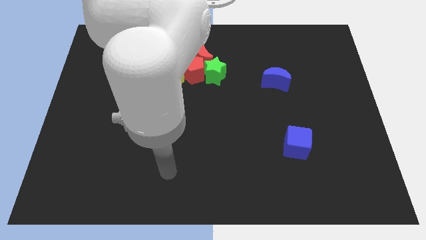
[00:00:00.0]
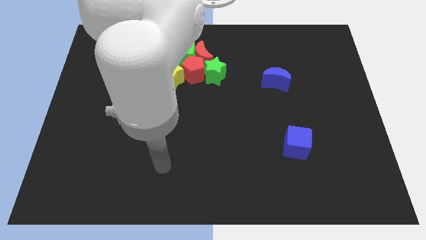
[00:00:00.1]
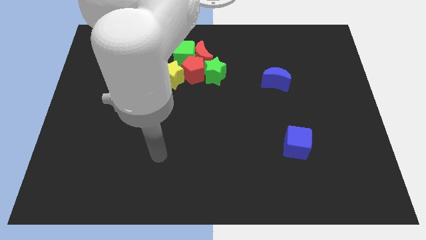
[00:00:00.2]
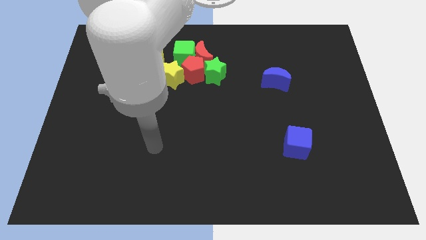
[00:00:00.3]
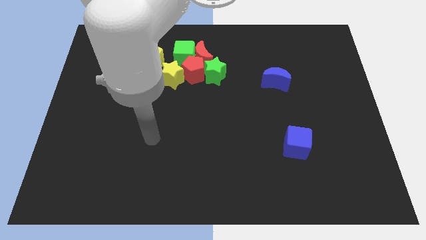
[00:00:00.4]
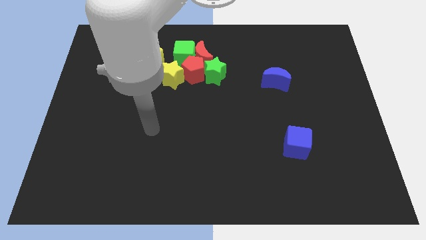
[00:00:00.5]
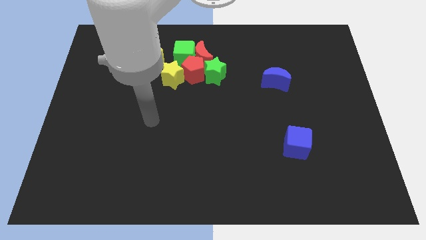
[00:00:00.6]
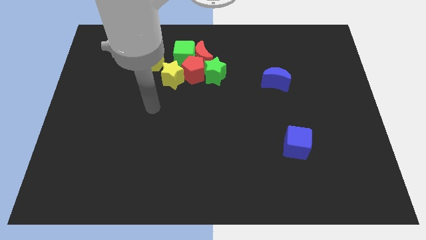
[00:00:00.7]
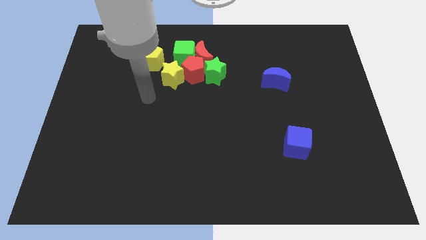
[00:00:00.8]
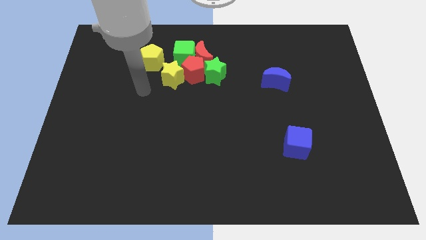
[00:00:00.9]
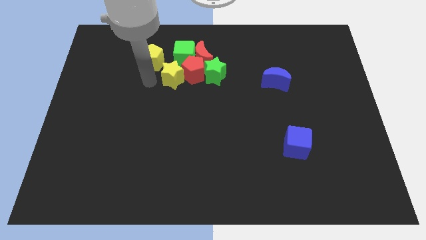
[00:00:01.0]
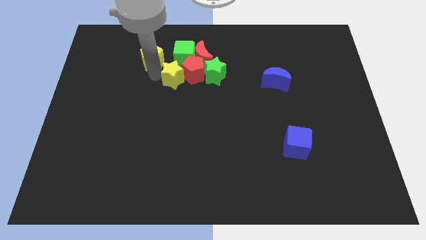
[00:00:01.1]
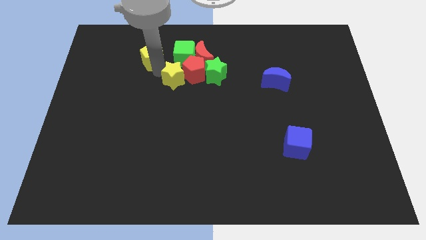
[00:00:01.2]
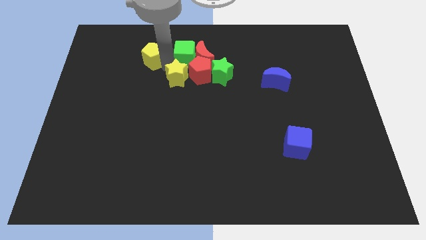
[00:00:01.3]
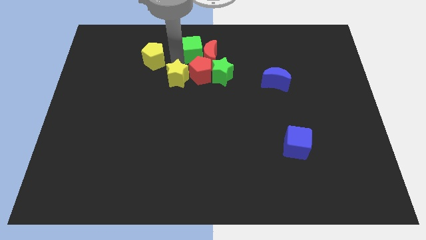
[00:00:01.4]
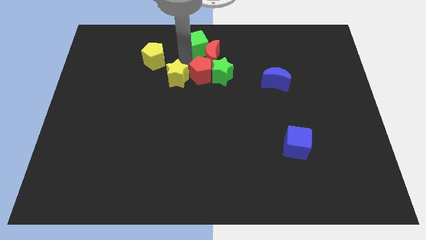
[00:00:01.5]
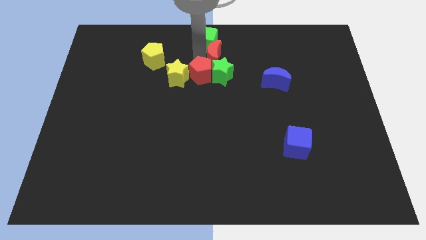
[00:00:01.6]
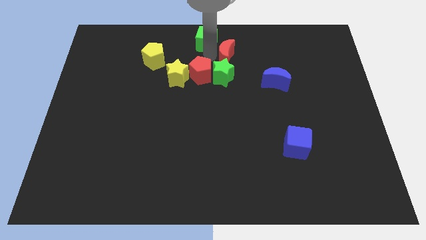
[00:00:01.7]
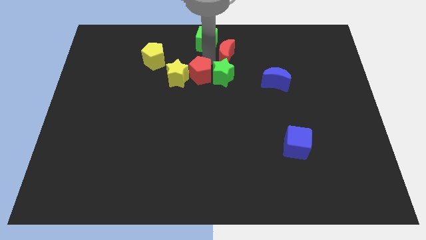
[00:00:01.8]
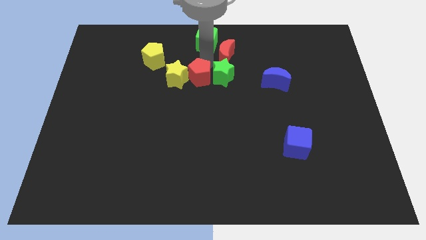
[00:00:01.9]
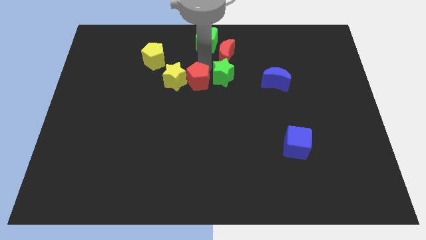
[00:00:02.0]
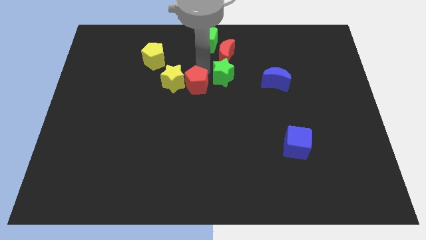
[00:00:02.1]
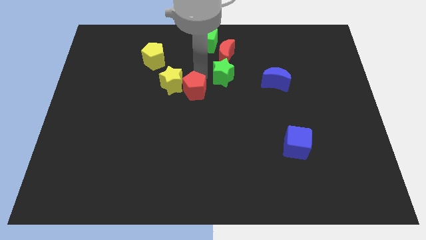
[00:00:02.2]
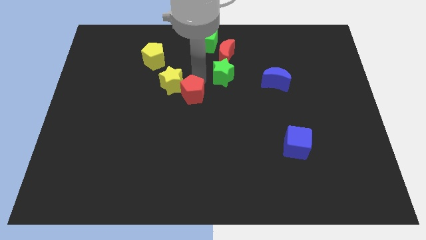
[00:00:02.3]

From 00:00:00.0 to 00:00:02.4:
move the red pentagon away from the group of blocks

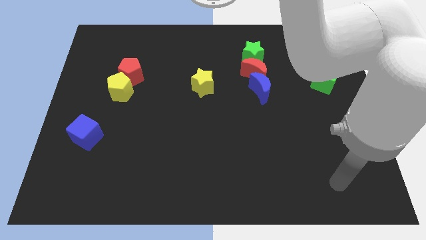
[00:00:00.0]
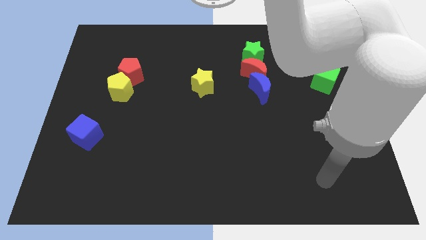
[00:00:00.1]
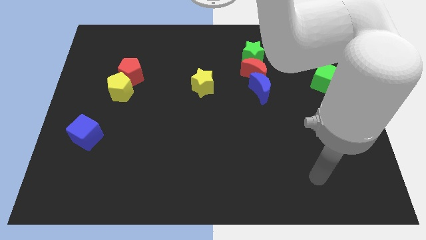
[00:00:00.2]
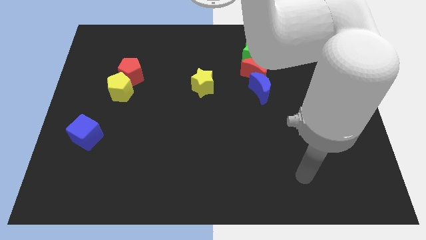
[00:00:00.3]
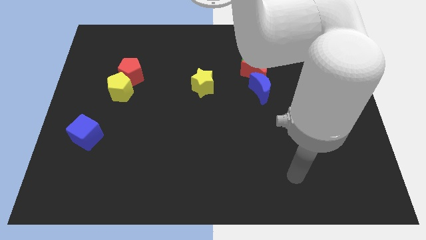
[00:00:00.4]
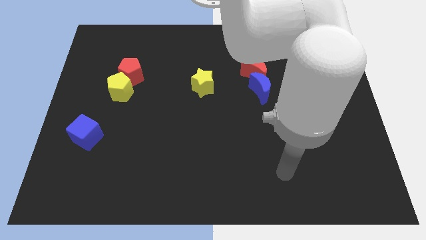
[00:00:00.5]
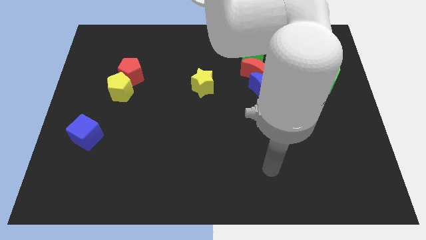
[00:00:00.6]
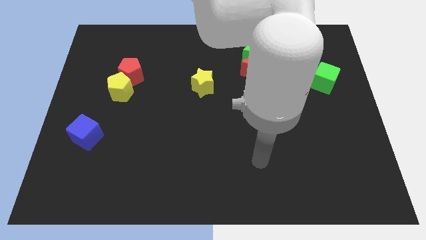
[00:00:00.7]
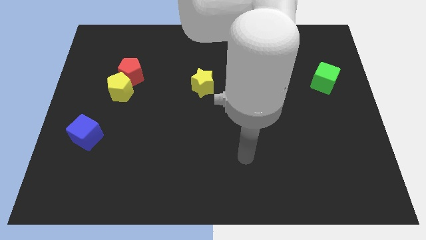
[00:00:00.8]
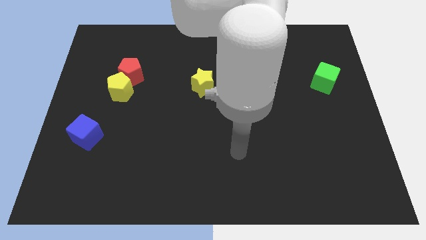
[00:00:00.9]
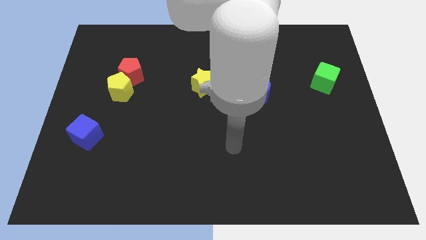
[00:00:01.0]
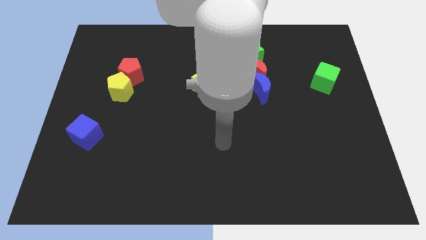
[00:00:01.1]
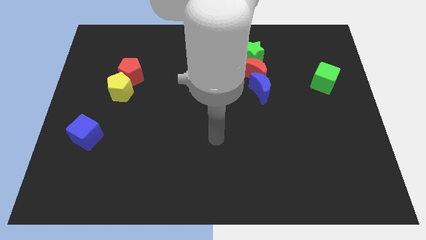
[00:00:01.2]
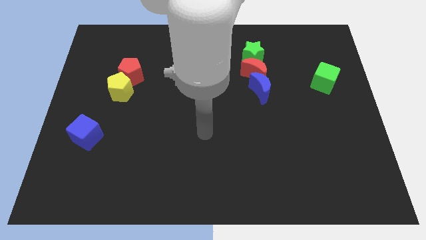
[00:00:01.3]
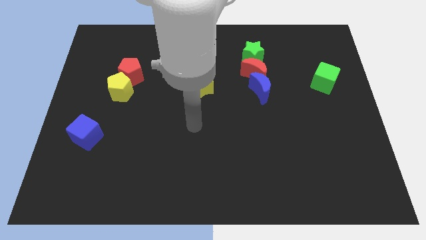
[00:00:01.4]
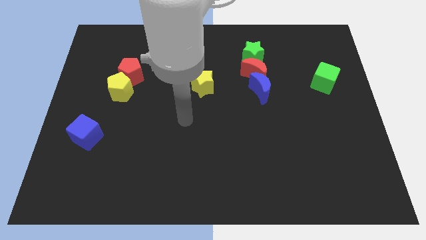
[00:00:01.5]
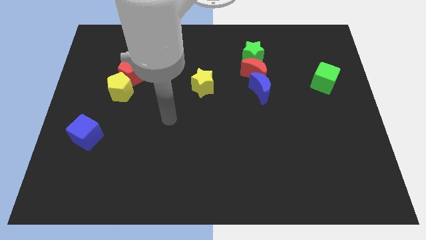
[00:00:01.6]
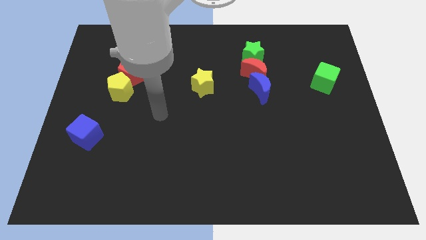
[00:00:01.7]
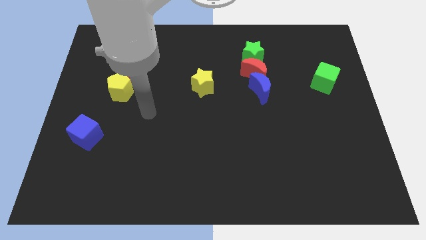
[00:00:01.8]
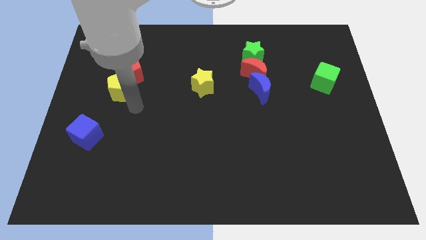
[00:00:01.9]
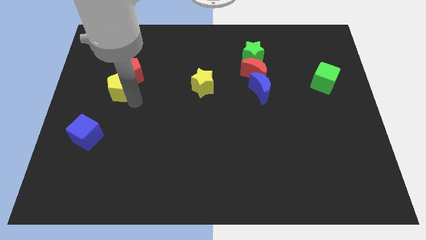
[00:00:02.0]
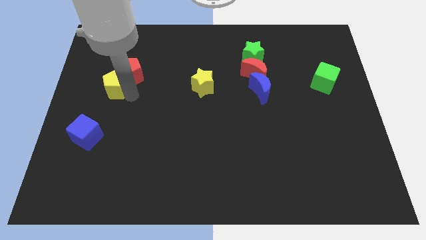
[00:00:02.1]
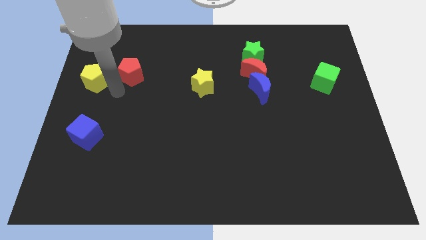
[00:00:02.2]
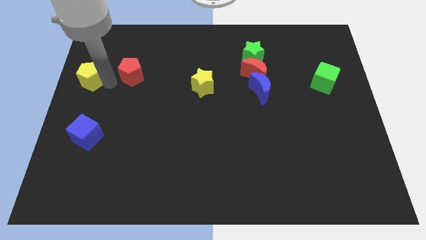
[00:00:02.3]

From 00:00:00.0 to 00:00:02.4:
pull the red pentagon apart from the yellow pentagon

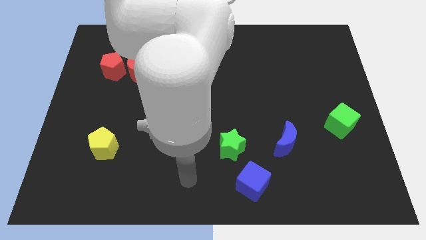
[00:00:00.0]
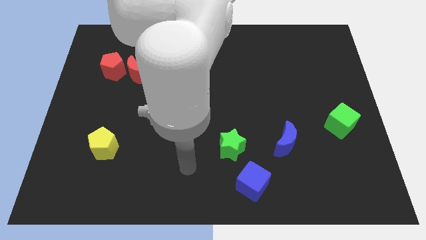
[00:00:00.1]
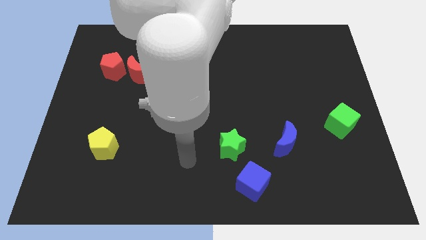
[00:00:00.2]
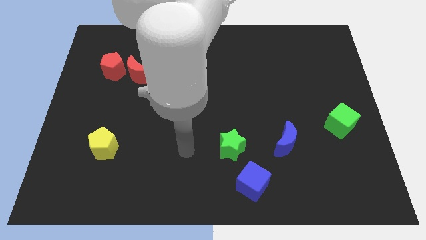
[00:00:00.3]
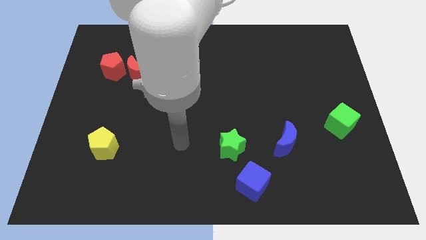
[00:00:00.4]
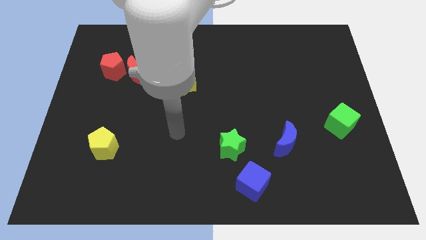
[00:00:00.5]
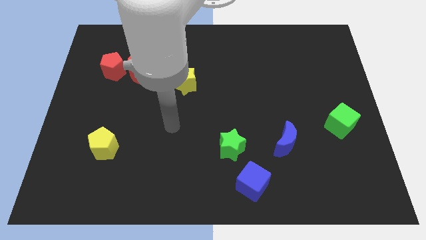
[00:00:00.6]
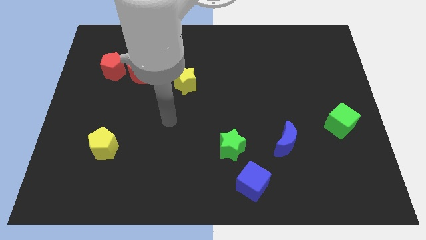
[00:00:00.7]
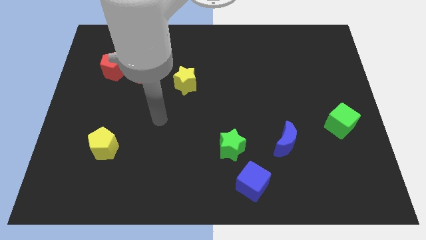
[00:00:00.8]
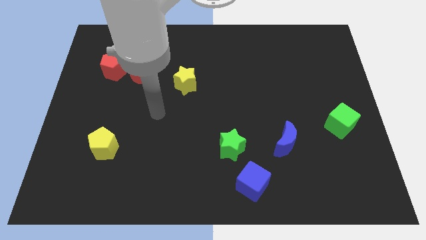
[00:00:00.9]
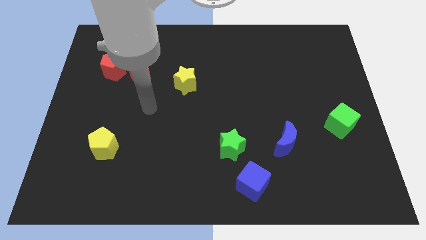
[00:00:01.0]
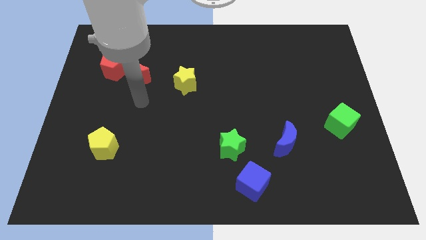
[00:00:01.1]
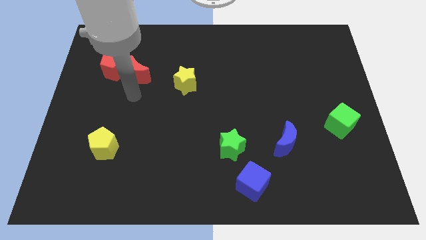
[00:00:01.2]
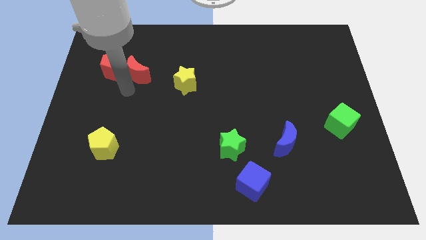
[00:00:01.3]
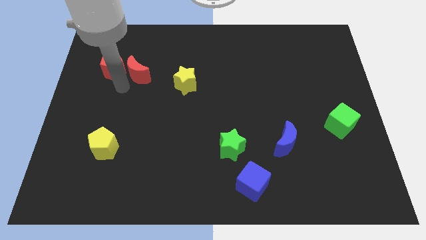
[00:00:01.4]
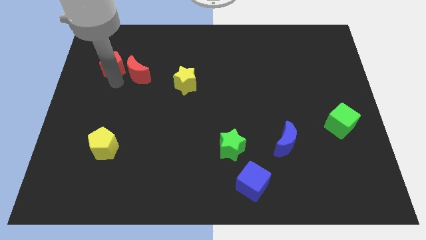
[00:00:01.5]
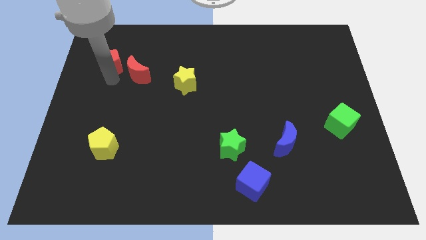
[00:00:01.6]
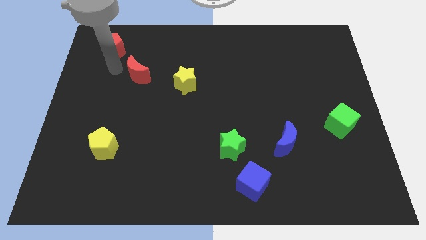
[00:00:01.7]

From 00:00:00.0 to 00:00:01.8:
separate the red moon from the red pentagon

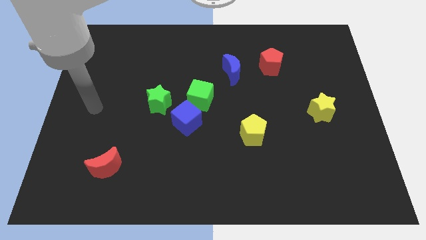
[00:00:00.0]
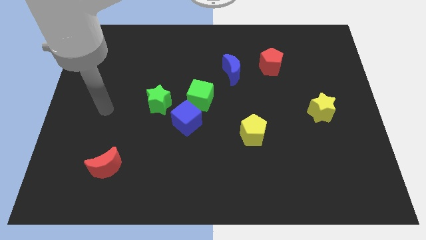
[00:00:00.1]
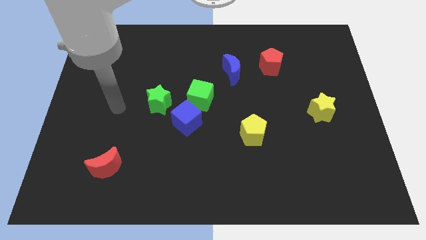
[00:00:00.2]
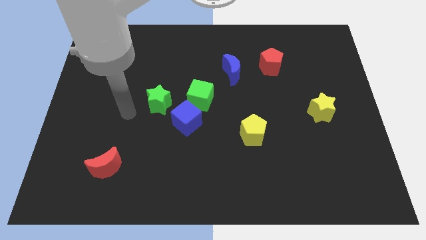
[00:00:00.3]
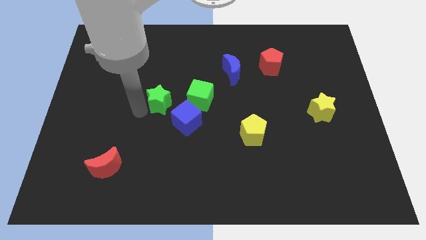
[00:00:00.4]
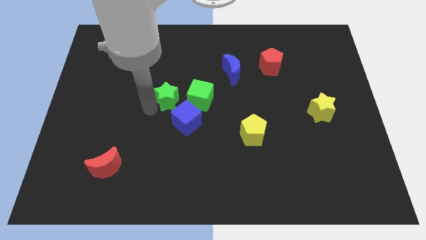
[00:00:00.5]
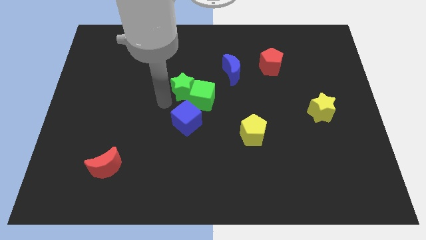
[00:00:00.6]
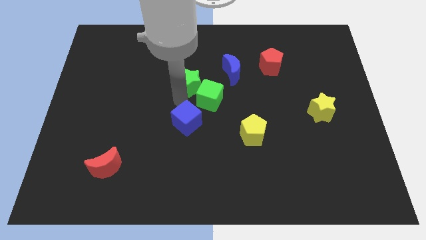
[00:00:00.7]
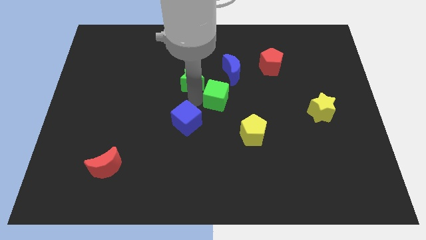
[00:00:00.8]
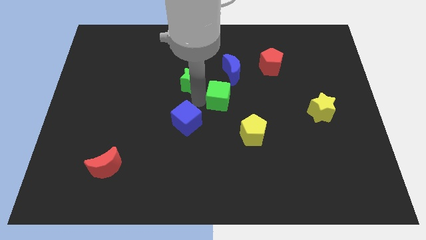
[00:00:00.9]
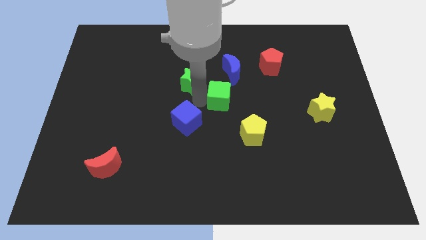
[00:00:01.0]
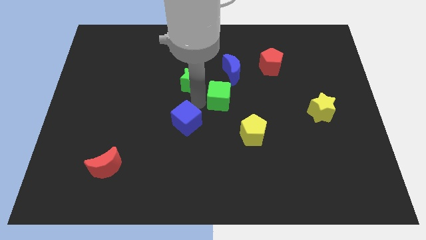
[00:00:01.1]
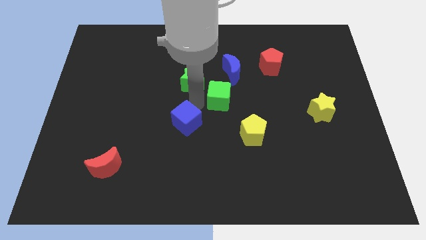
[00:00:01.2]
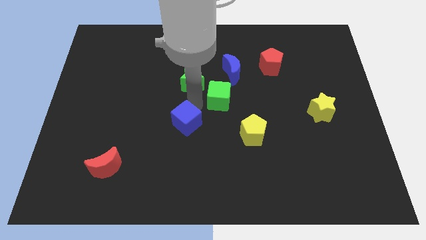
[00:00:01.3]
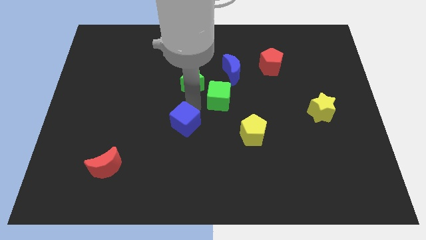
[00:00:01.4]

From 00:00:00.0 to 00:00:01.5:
separate the blue cube from the green cube and green star

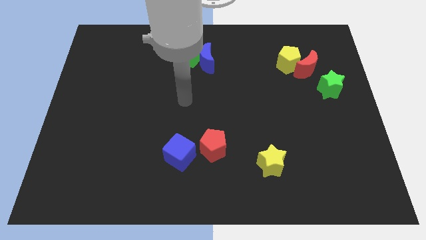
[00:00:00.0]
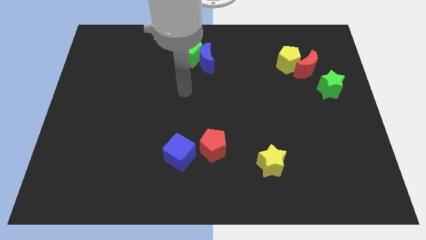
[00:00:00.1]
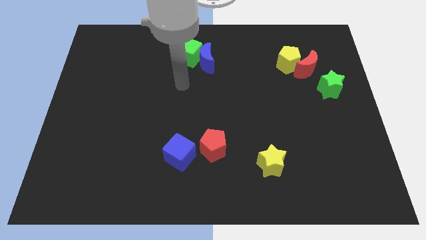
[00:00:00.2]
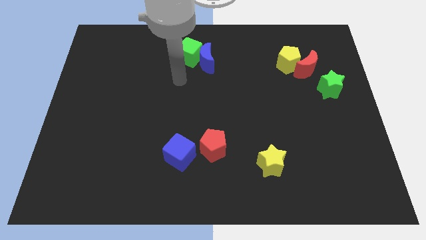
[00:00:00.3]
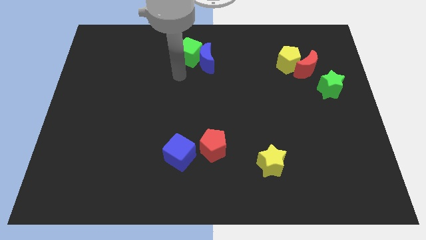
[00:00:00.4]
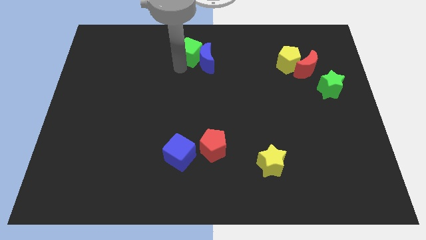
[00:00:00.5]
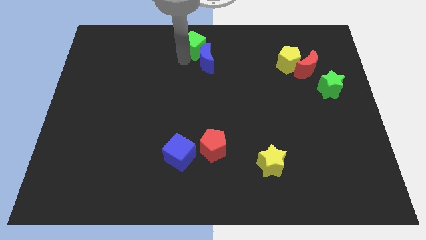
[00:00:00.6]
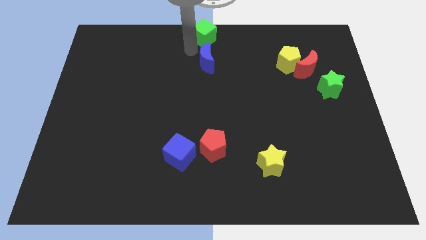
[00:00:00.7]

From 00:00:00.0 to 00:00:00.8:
move the blue moon away from the green cube

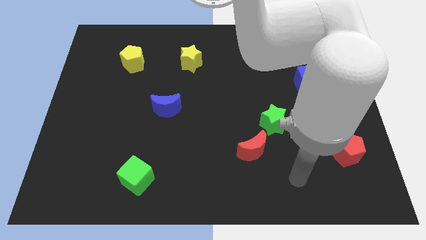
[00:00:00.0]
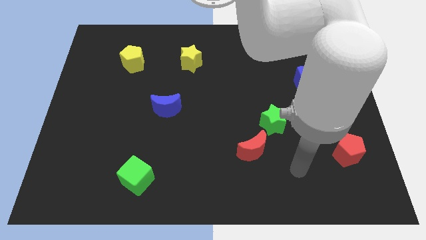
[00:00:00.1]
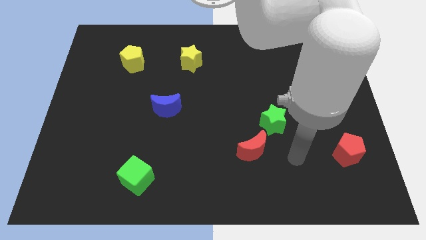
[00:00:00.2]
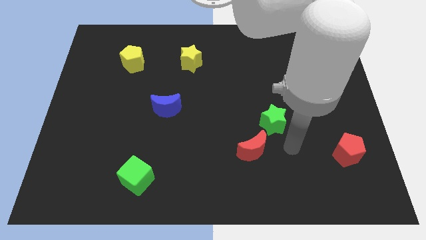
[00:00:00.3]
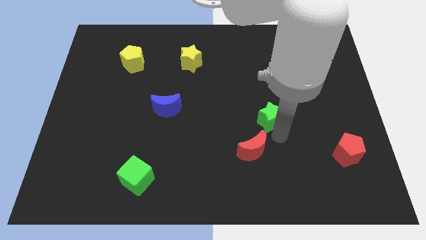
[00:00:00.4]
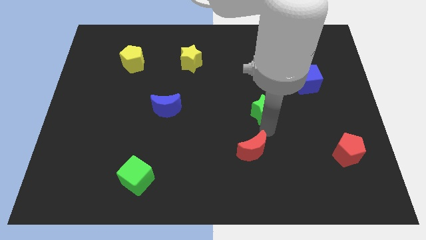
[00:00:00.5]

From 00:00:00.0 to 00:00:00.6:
separate the red moon from the green star
